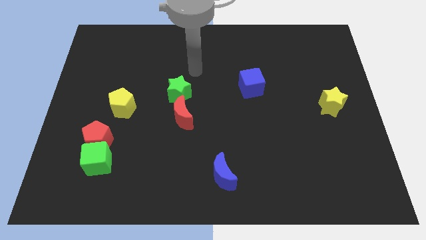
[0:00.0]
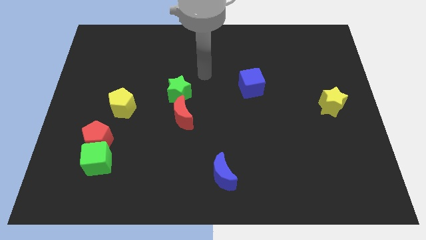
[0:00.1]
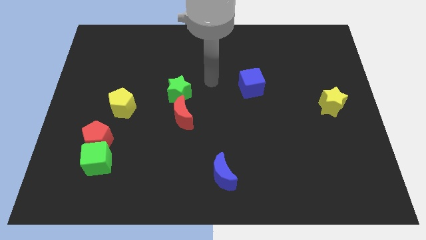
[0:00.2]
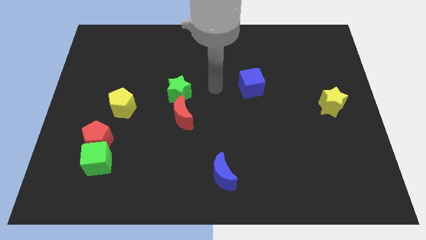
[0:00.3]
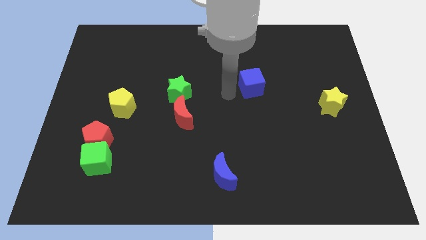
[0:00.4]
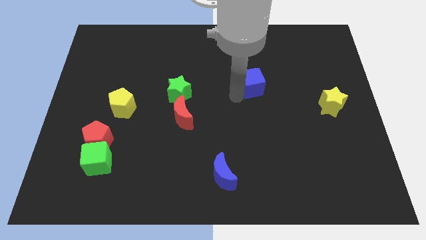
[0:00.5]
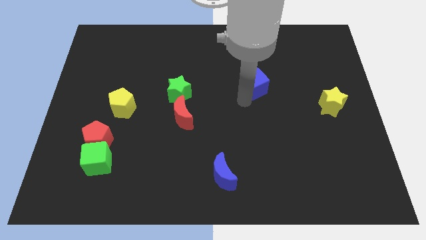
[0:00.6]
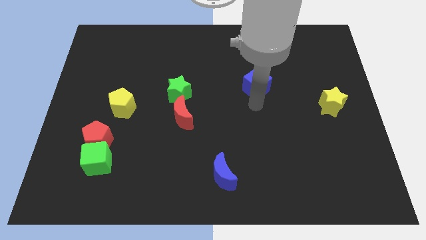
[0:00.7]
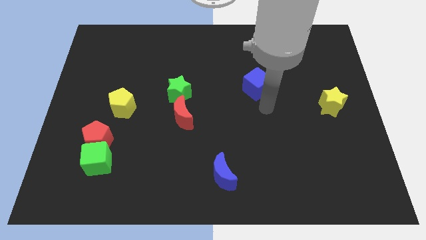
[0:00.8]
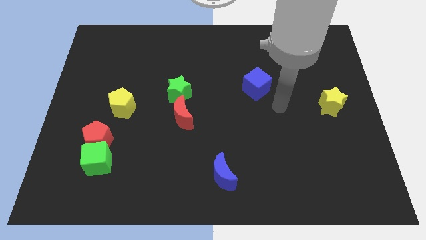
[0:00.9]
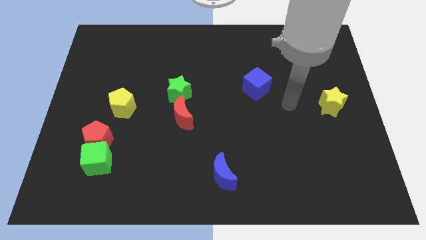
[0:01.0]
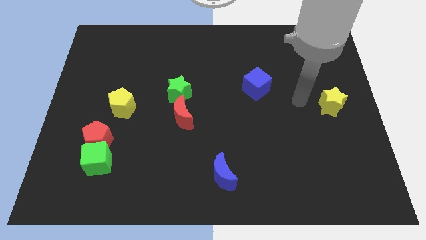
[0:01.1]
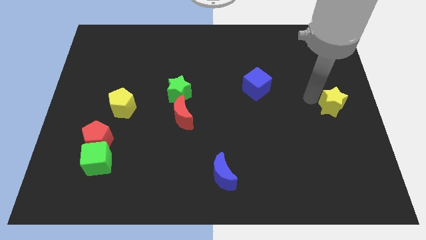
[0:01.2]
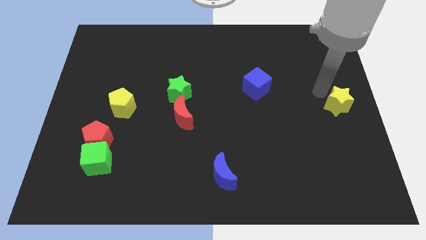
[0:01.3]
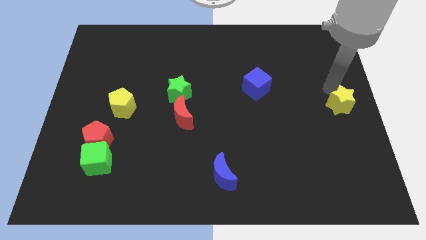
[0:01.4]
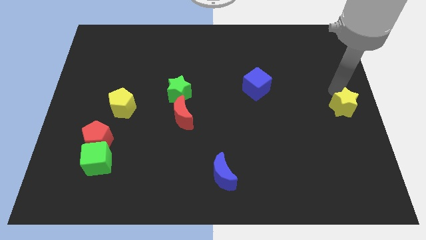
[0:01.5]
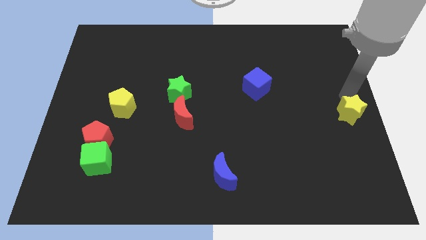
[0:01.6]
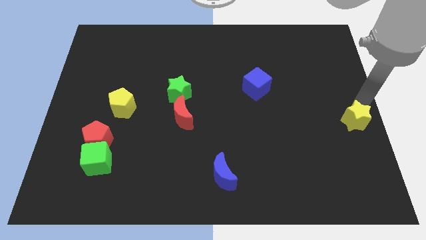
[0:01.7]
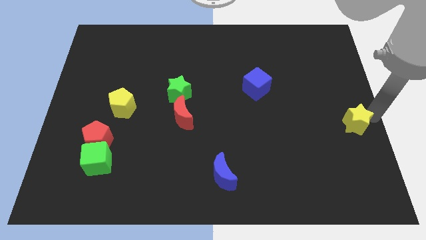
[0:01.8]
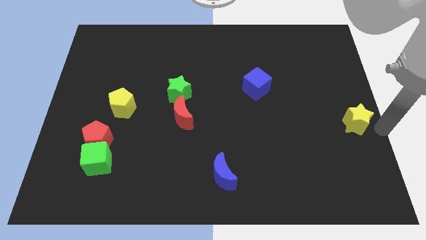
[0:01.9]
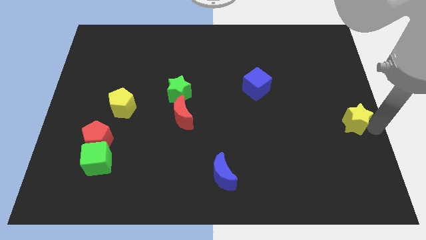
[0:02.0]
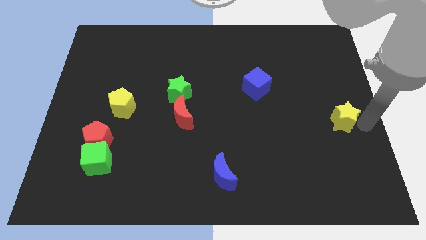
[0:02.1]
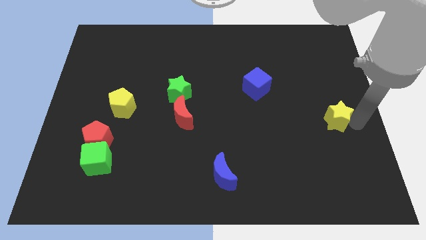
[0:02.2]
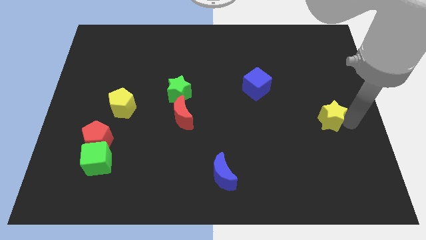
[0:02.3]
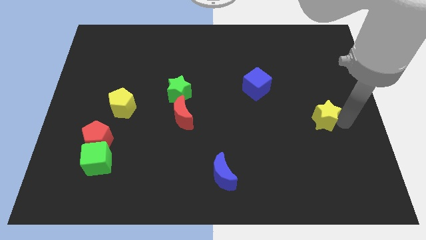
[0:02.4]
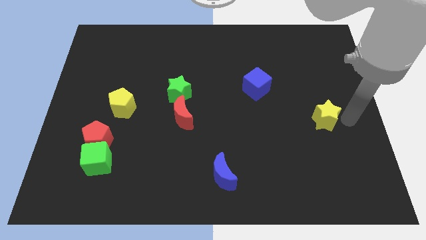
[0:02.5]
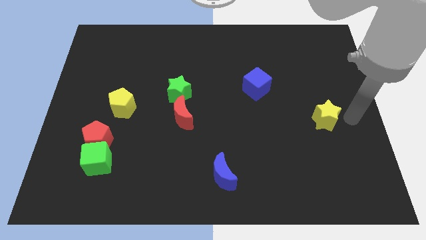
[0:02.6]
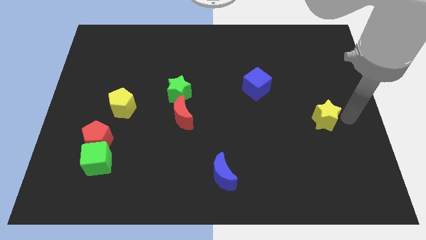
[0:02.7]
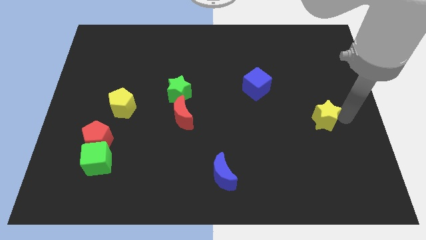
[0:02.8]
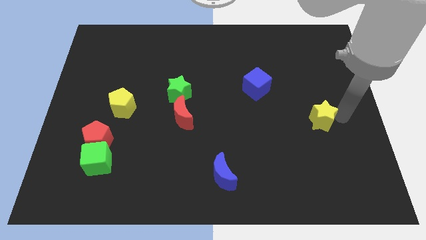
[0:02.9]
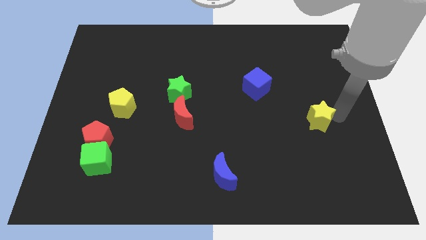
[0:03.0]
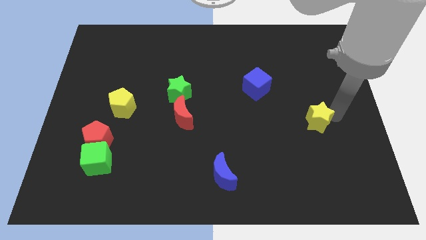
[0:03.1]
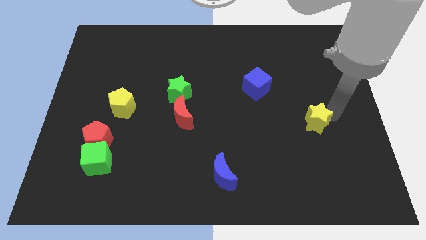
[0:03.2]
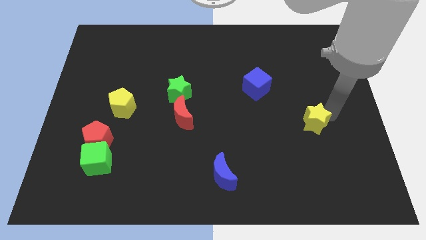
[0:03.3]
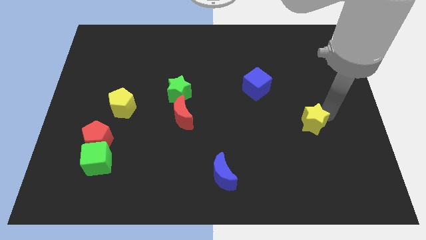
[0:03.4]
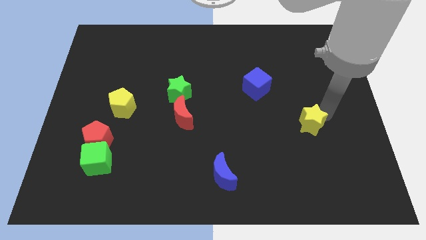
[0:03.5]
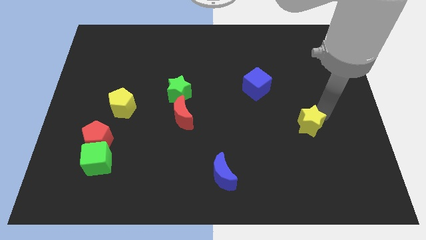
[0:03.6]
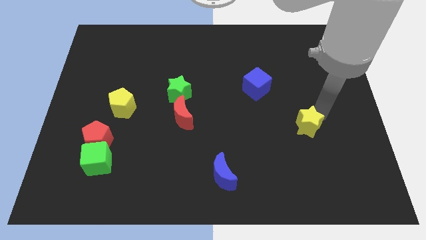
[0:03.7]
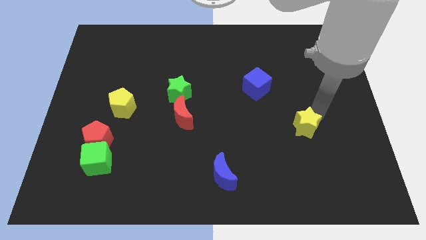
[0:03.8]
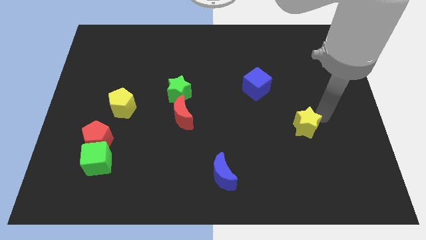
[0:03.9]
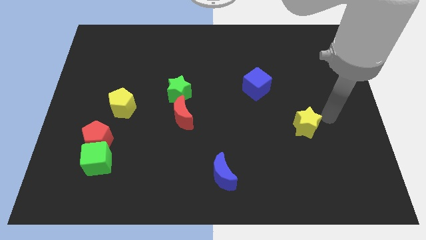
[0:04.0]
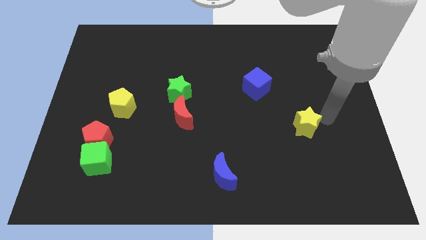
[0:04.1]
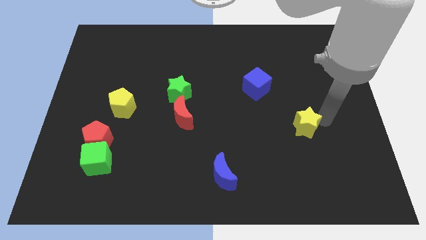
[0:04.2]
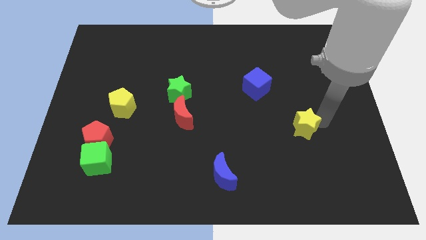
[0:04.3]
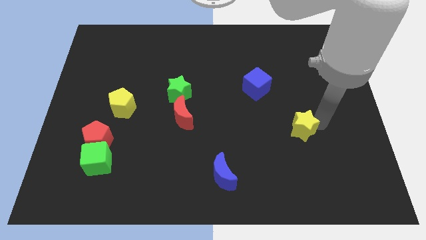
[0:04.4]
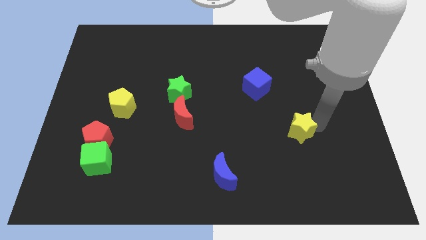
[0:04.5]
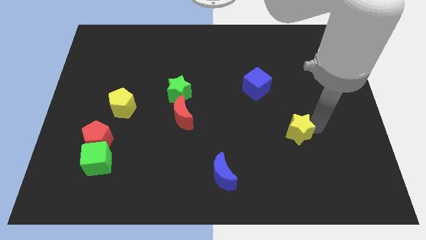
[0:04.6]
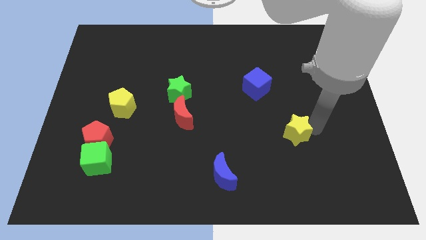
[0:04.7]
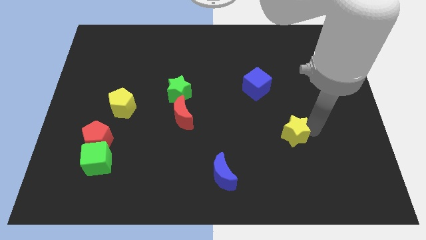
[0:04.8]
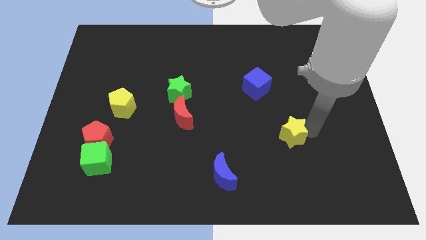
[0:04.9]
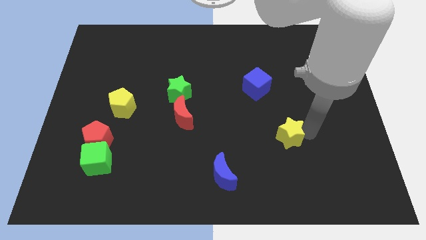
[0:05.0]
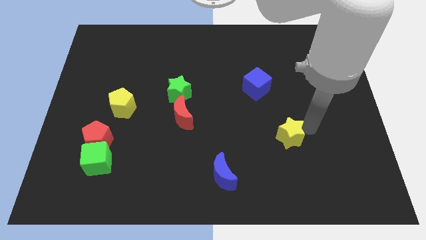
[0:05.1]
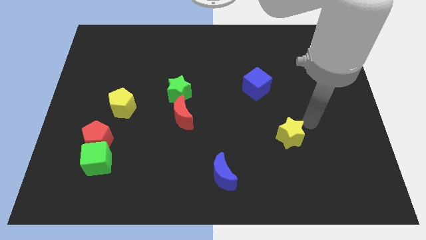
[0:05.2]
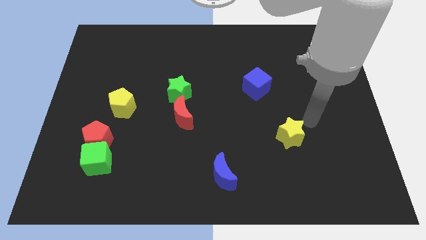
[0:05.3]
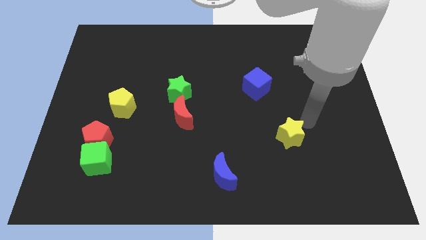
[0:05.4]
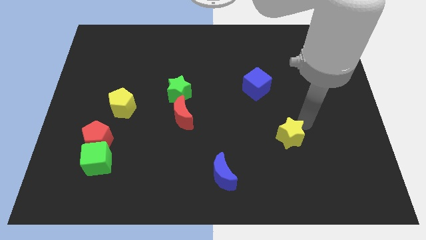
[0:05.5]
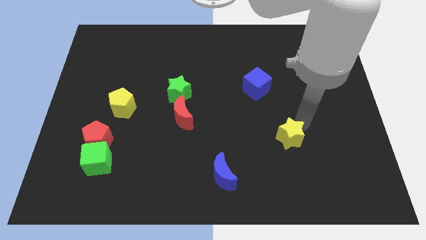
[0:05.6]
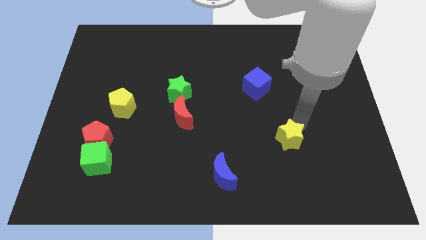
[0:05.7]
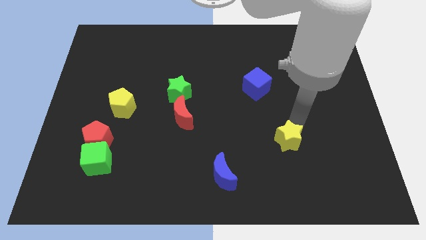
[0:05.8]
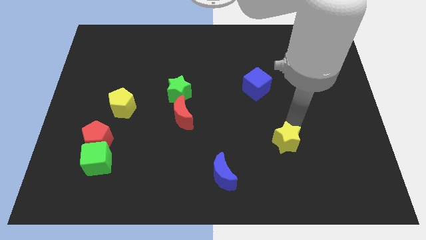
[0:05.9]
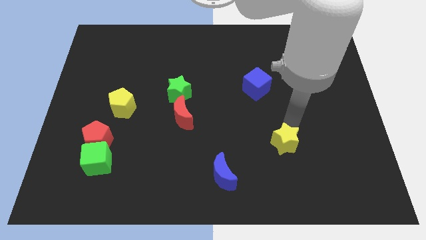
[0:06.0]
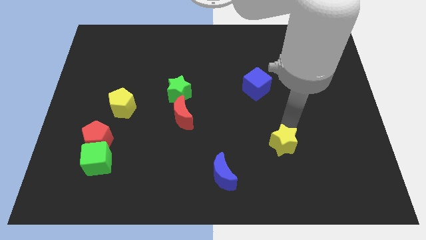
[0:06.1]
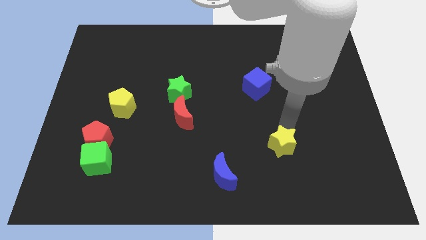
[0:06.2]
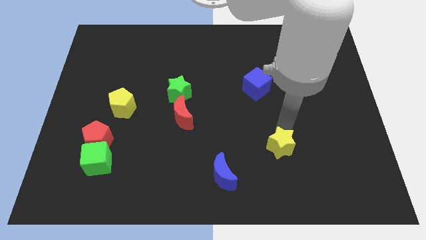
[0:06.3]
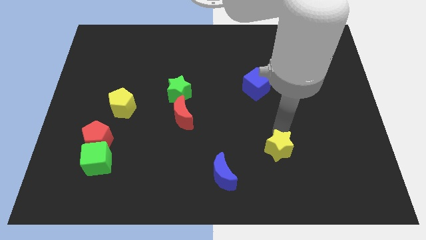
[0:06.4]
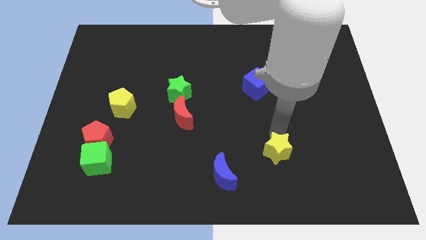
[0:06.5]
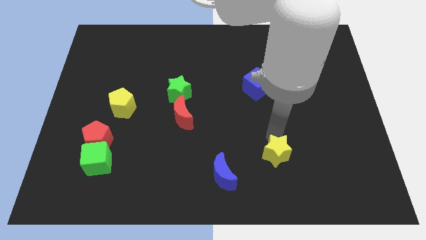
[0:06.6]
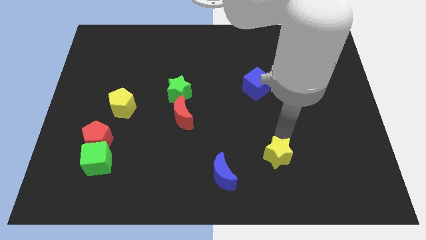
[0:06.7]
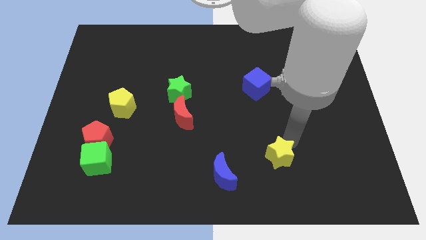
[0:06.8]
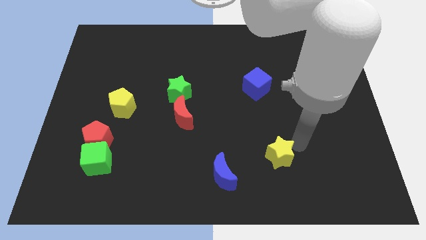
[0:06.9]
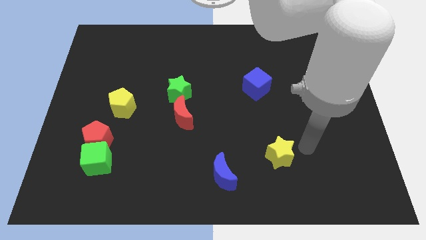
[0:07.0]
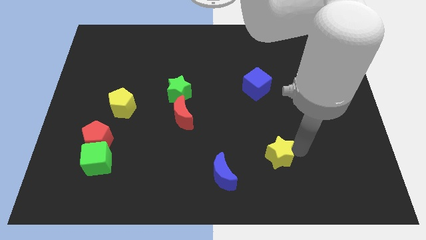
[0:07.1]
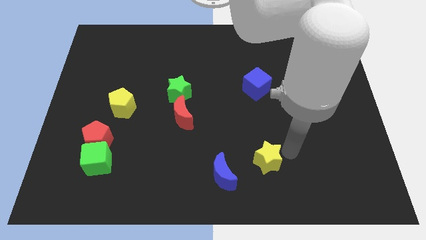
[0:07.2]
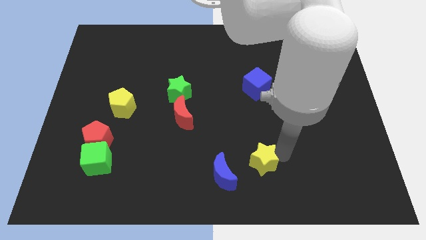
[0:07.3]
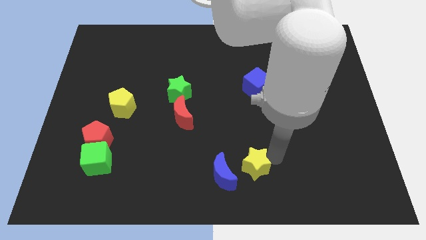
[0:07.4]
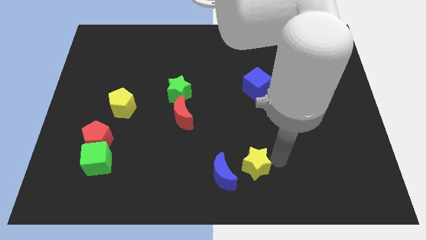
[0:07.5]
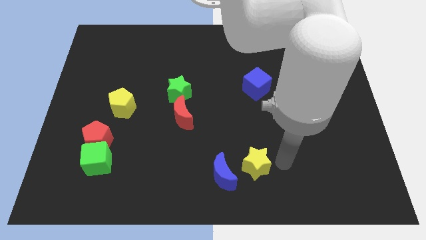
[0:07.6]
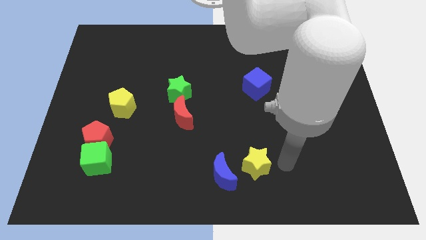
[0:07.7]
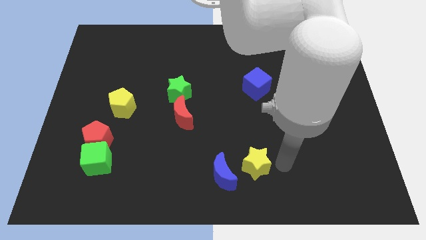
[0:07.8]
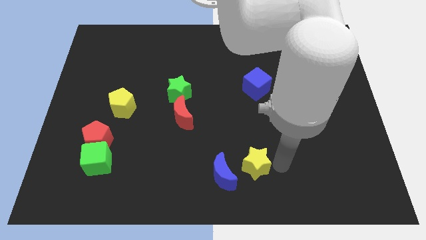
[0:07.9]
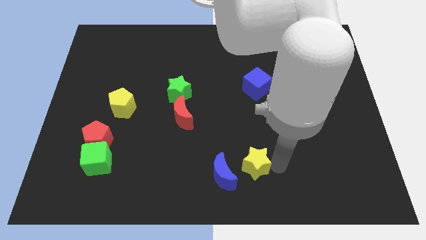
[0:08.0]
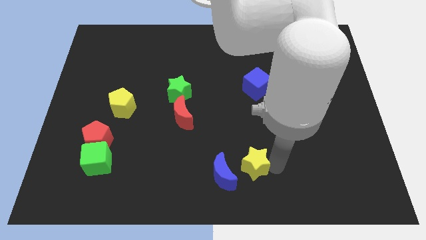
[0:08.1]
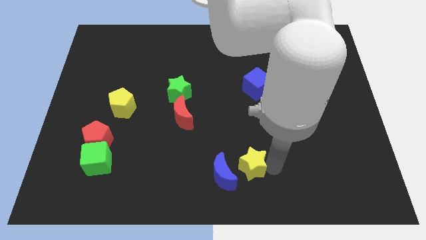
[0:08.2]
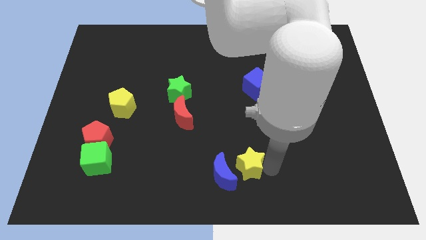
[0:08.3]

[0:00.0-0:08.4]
slide the yellow star close to the blue moon
